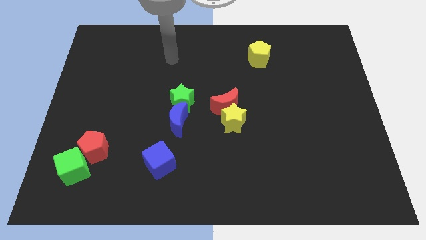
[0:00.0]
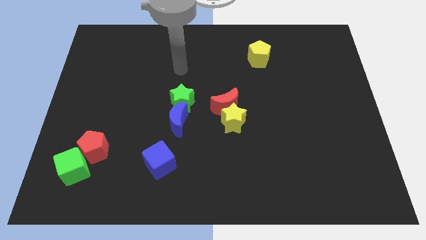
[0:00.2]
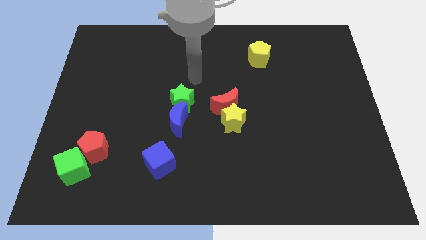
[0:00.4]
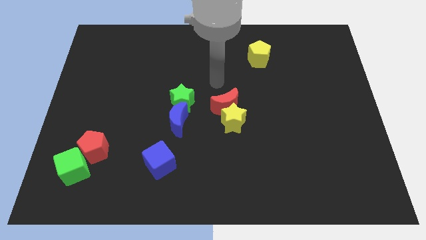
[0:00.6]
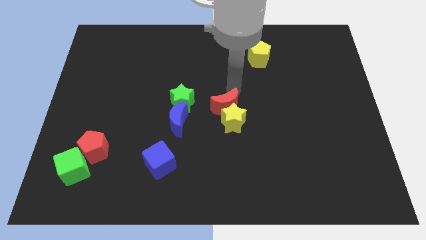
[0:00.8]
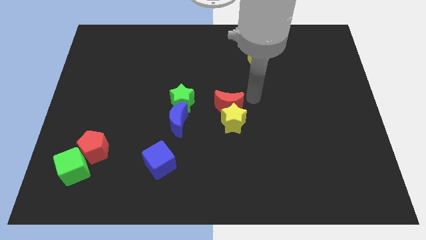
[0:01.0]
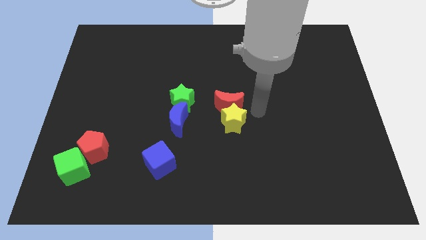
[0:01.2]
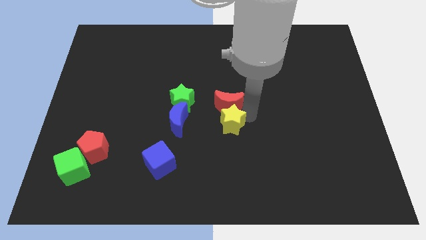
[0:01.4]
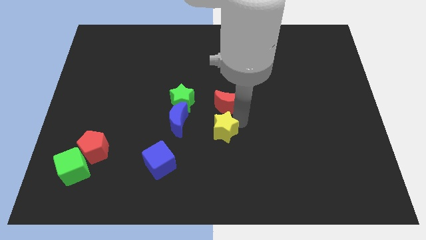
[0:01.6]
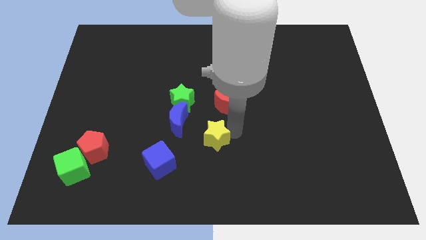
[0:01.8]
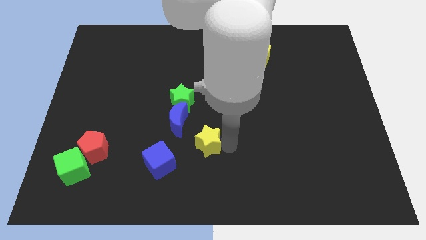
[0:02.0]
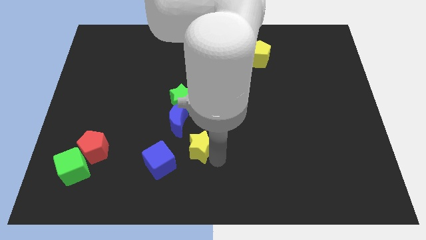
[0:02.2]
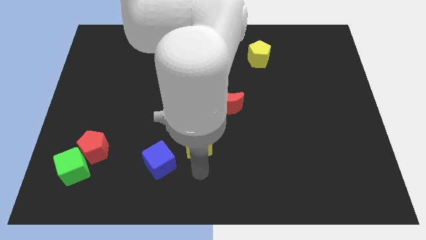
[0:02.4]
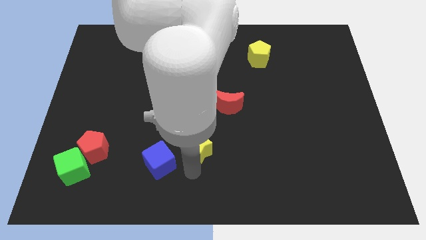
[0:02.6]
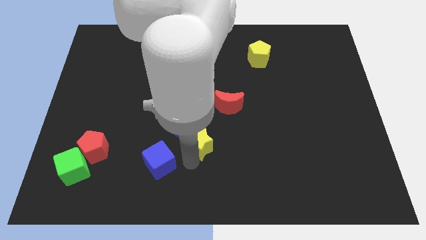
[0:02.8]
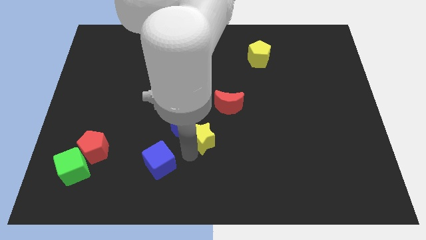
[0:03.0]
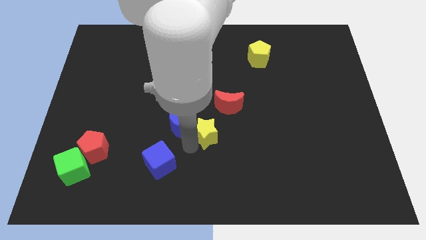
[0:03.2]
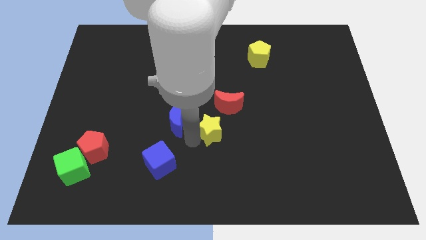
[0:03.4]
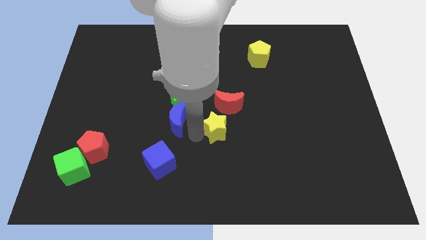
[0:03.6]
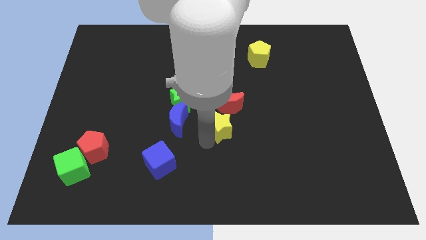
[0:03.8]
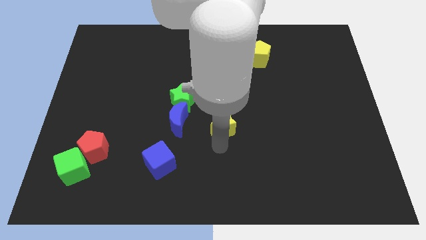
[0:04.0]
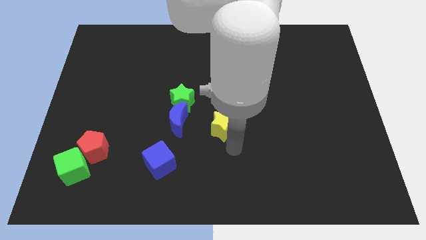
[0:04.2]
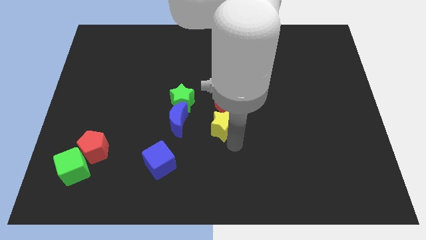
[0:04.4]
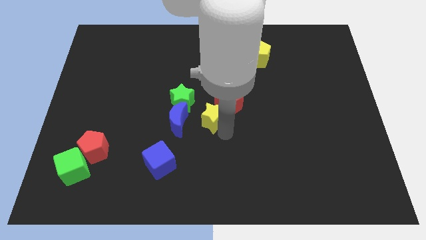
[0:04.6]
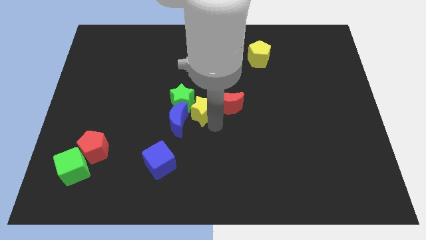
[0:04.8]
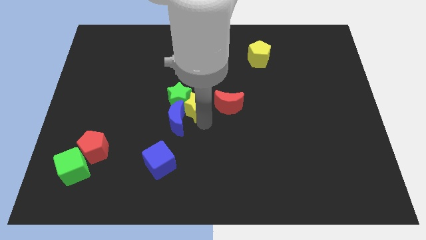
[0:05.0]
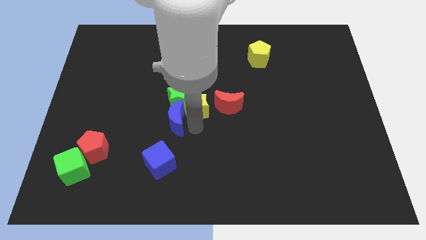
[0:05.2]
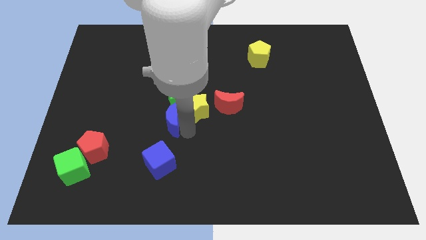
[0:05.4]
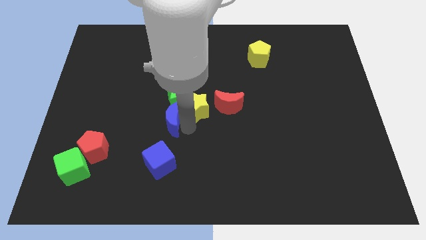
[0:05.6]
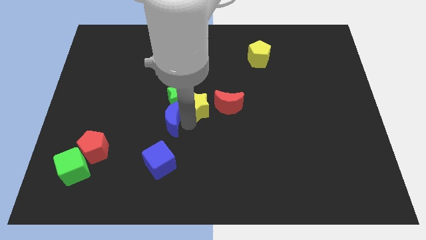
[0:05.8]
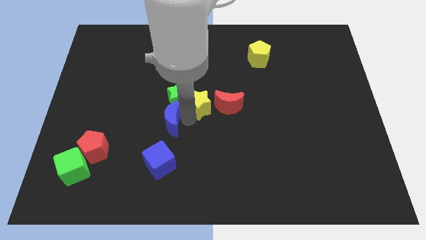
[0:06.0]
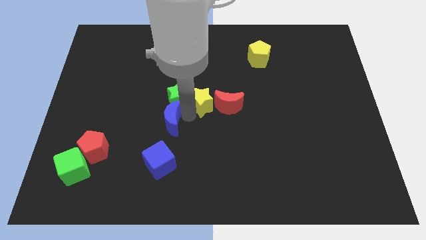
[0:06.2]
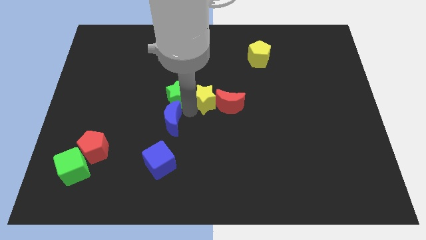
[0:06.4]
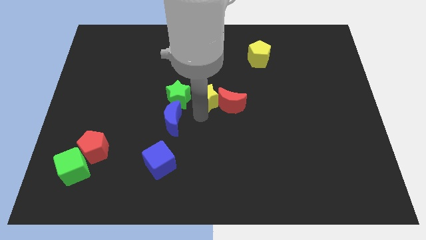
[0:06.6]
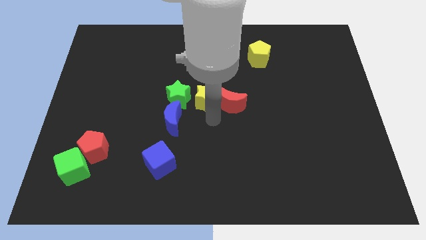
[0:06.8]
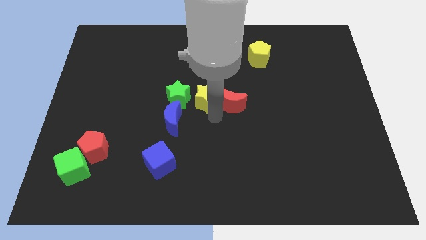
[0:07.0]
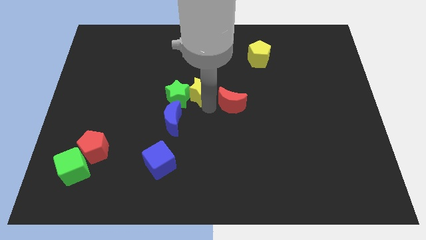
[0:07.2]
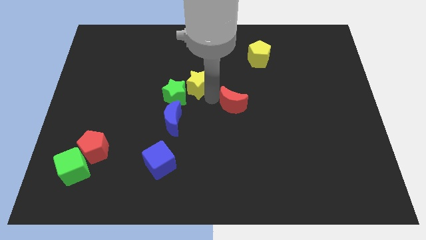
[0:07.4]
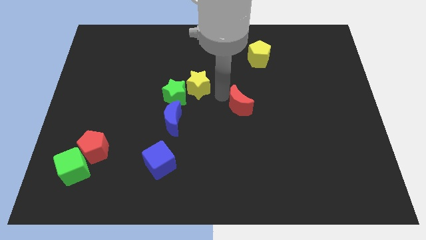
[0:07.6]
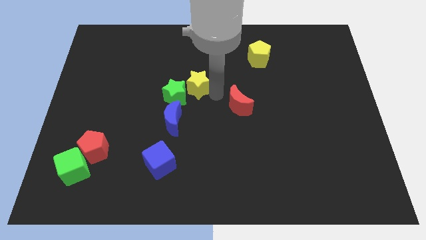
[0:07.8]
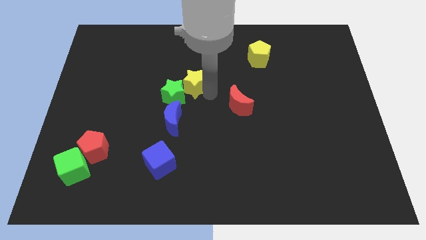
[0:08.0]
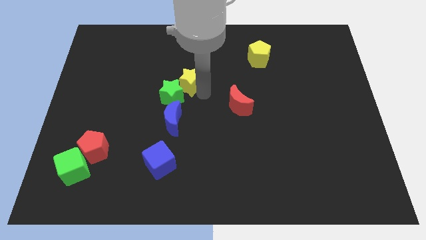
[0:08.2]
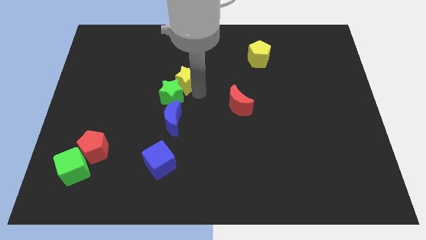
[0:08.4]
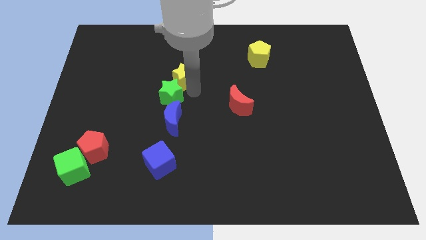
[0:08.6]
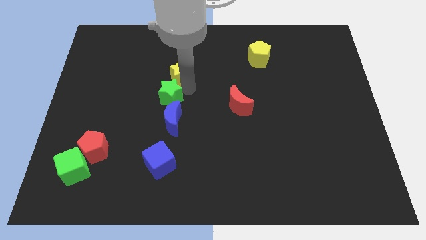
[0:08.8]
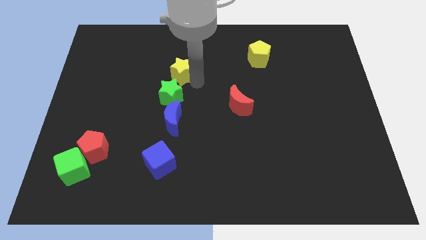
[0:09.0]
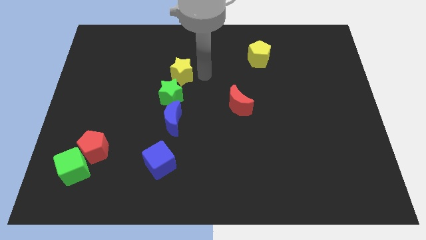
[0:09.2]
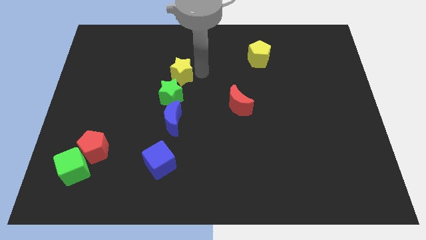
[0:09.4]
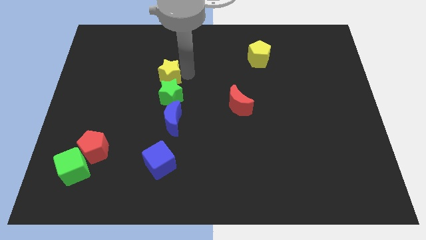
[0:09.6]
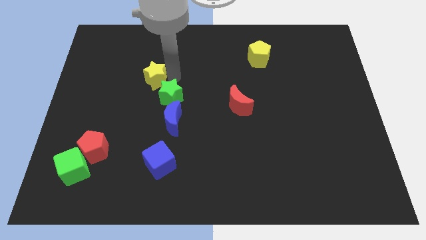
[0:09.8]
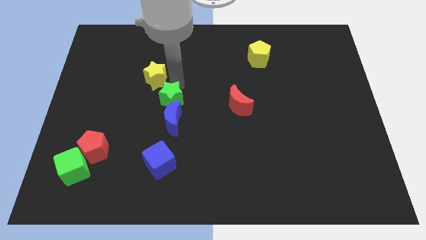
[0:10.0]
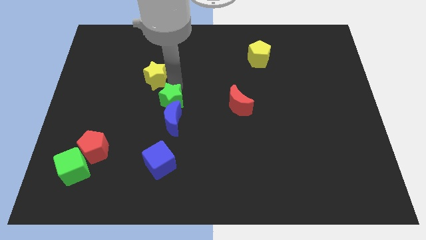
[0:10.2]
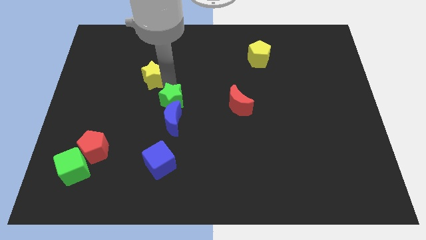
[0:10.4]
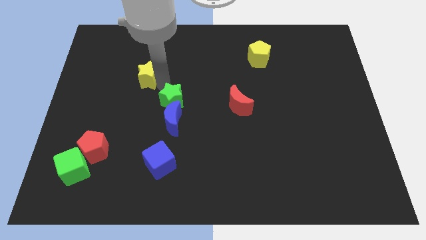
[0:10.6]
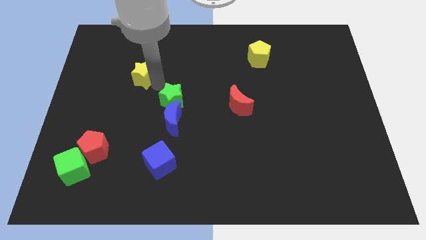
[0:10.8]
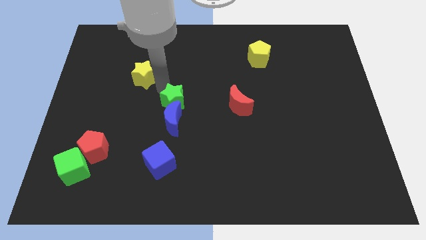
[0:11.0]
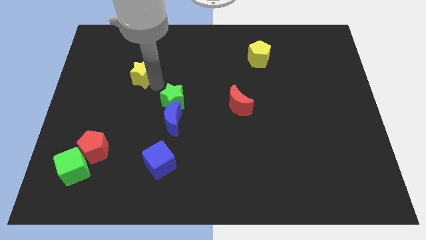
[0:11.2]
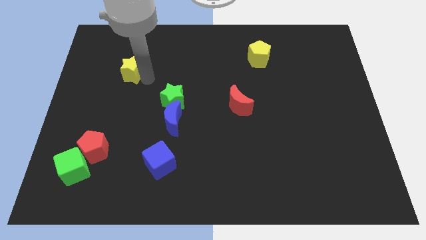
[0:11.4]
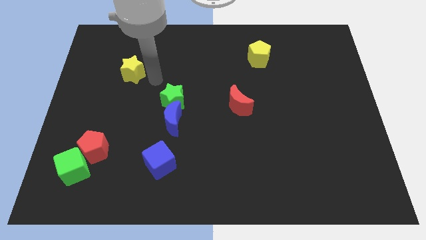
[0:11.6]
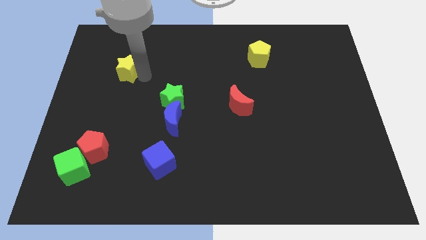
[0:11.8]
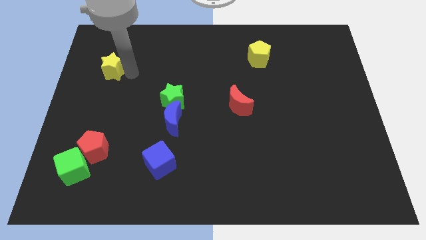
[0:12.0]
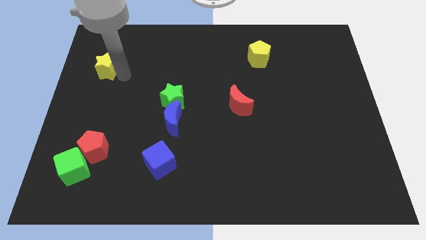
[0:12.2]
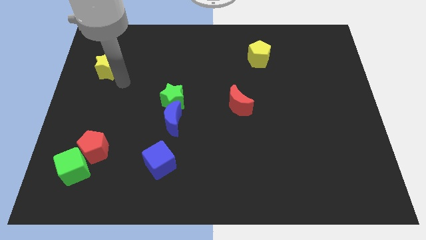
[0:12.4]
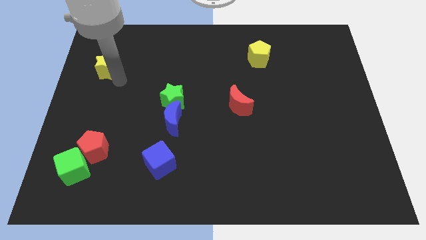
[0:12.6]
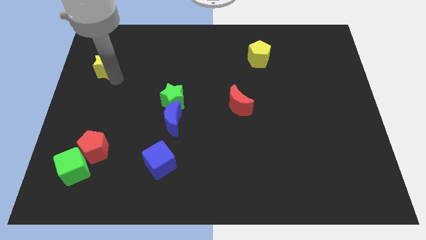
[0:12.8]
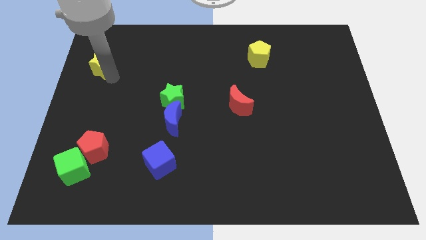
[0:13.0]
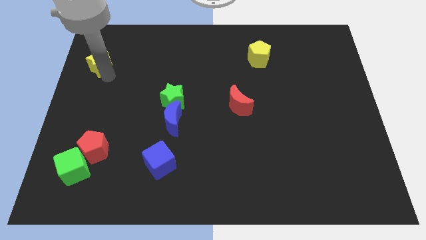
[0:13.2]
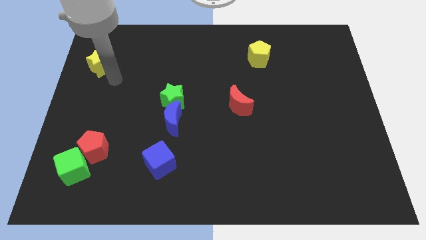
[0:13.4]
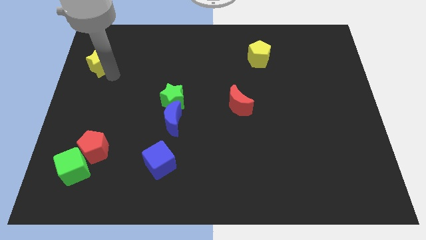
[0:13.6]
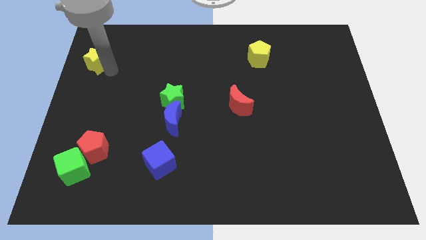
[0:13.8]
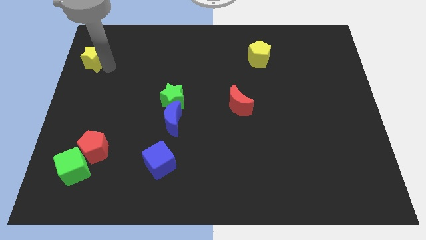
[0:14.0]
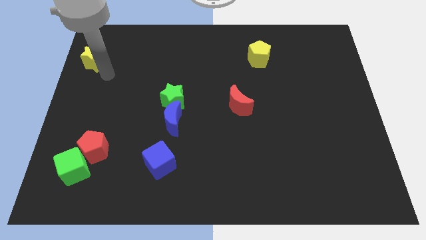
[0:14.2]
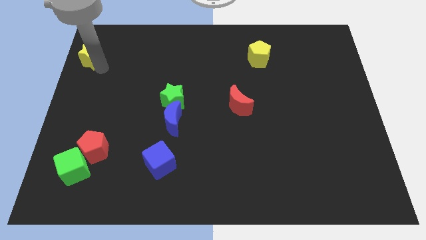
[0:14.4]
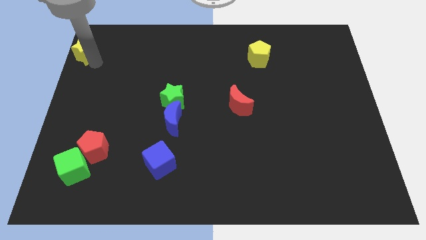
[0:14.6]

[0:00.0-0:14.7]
push the yellow star to the top left of the board

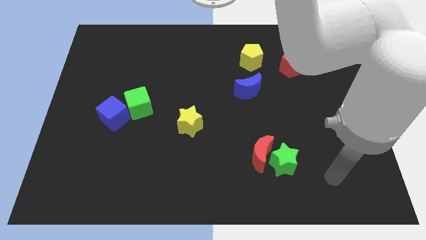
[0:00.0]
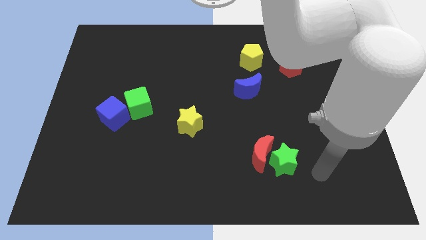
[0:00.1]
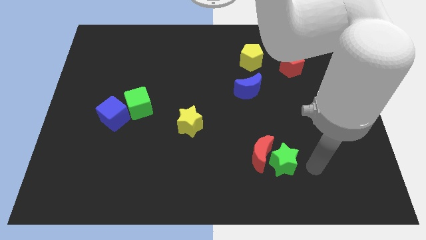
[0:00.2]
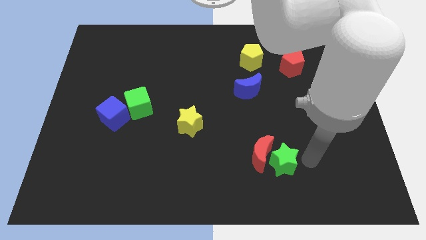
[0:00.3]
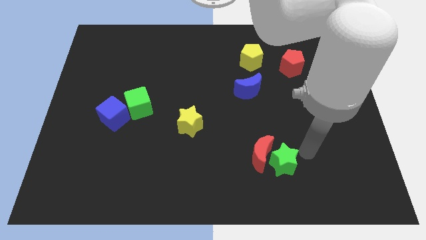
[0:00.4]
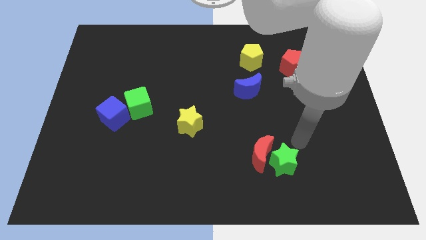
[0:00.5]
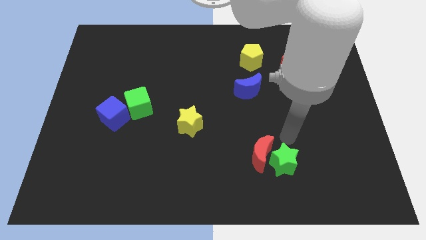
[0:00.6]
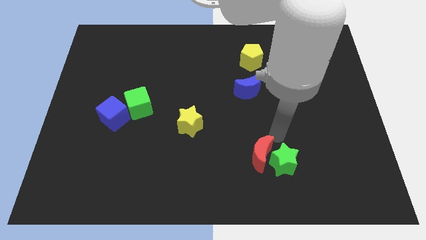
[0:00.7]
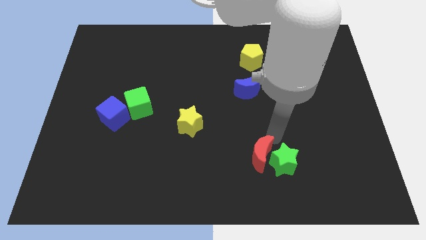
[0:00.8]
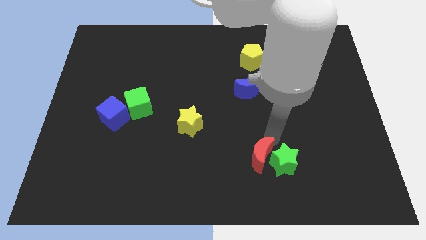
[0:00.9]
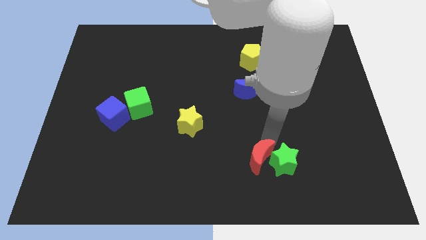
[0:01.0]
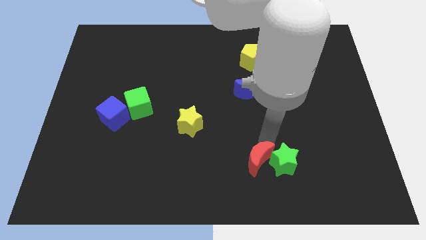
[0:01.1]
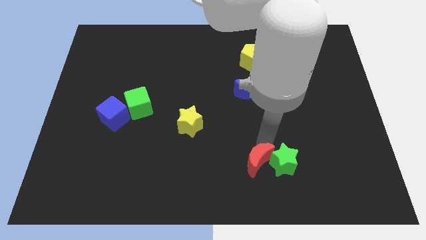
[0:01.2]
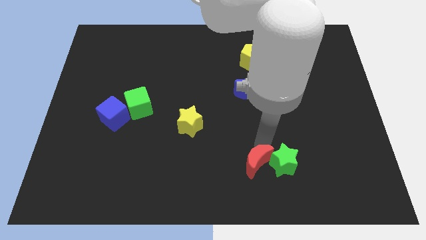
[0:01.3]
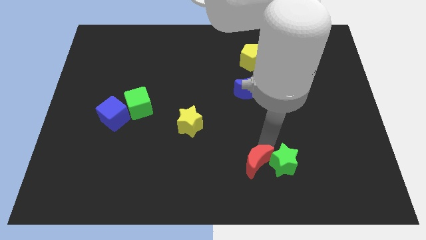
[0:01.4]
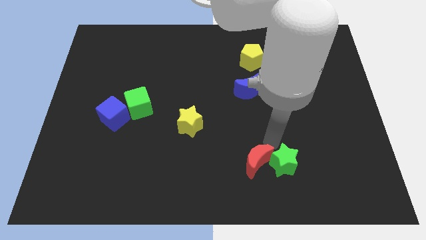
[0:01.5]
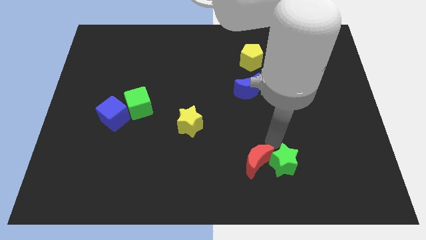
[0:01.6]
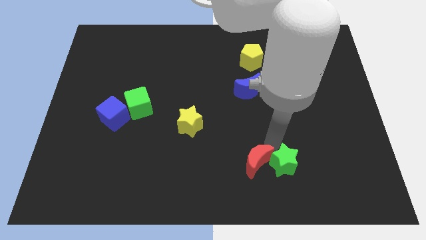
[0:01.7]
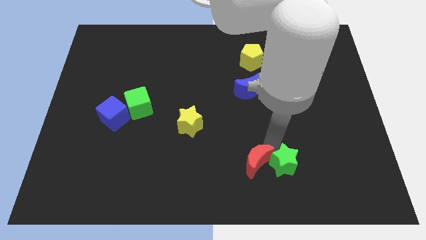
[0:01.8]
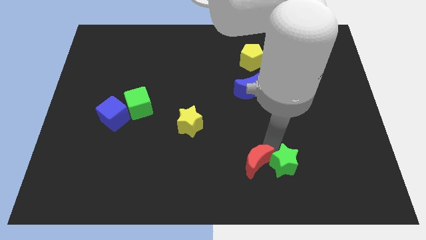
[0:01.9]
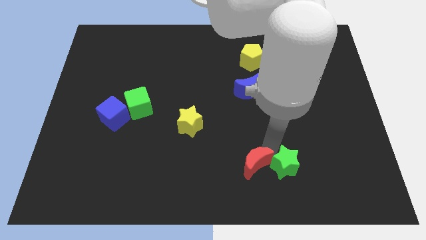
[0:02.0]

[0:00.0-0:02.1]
slide the red moon to the bottom side
